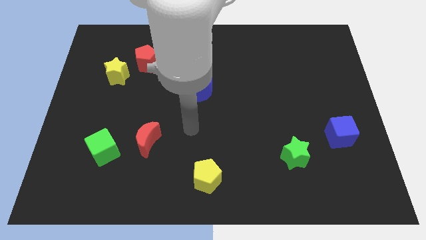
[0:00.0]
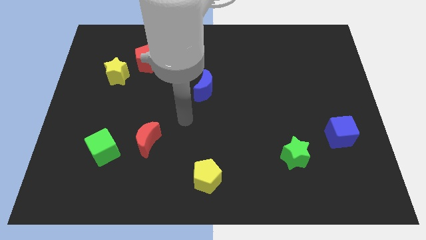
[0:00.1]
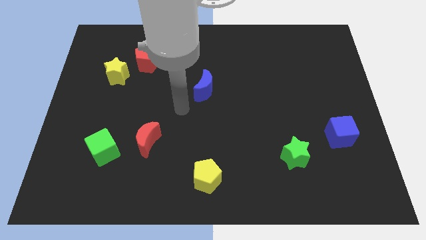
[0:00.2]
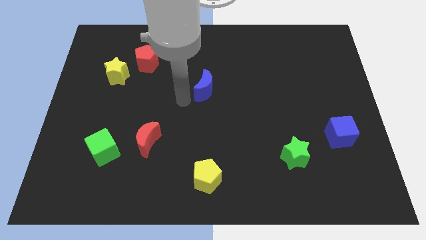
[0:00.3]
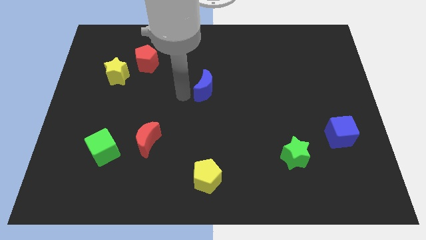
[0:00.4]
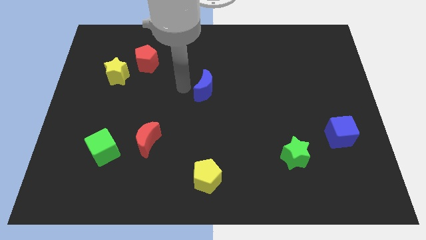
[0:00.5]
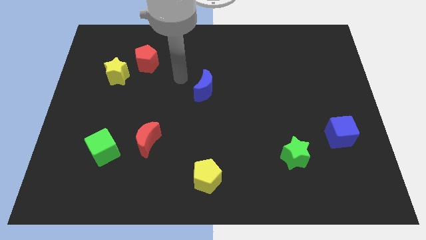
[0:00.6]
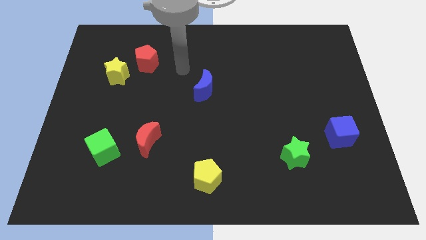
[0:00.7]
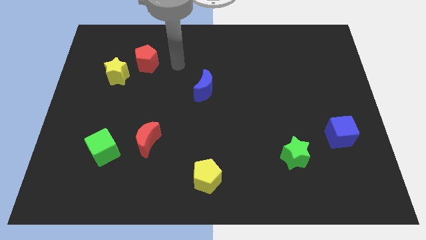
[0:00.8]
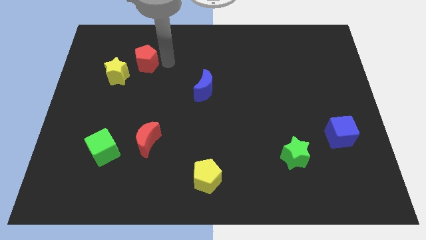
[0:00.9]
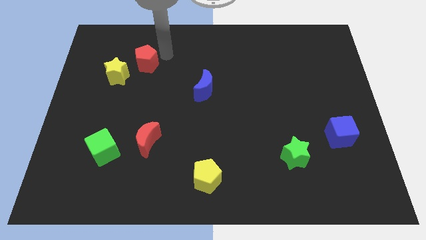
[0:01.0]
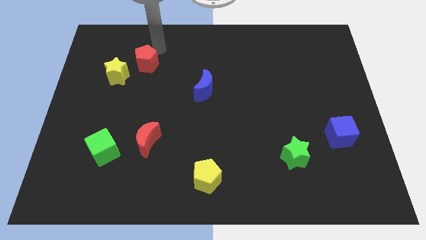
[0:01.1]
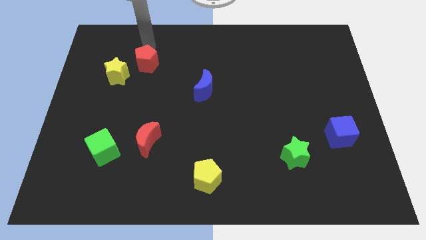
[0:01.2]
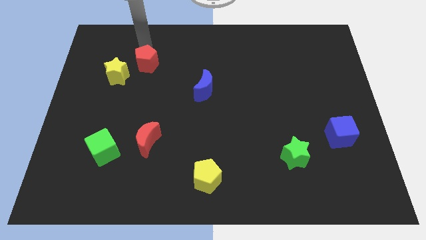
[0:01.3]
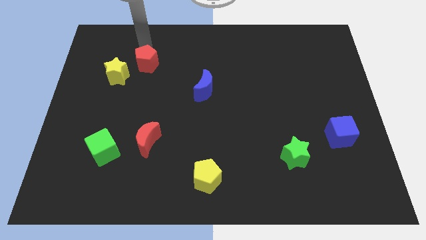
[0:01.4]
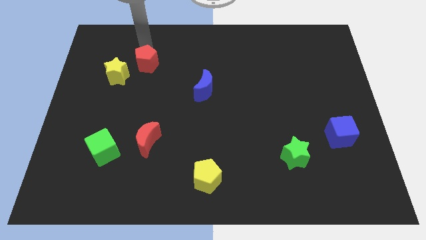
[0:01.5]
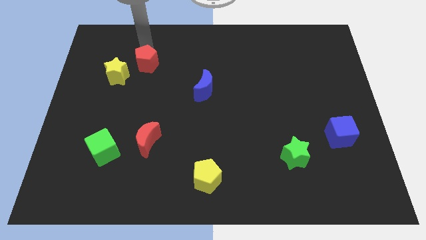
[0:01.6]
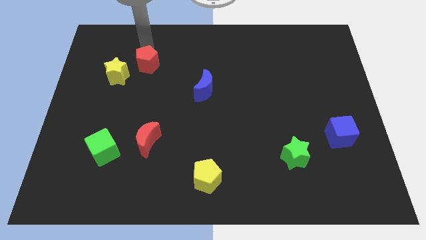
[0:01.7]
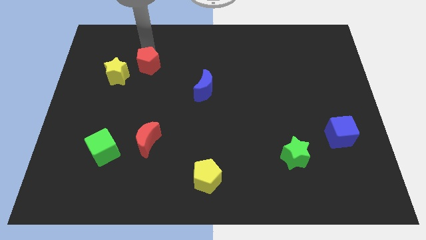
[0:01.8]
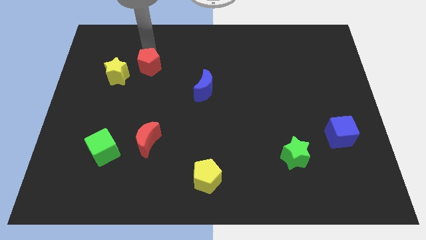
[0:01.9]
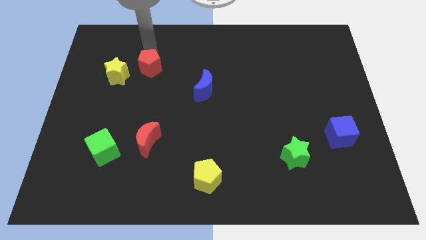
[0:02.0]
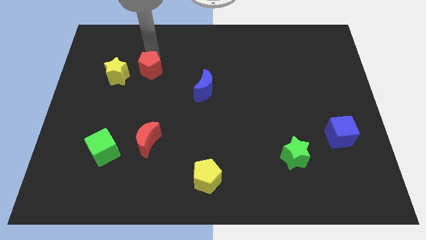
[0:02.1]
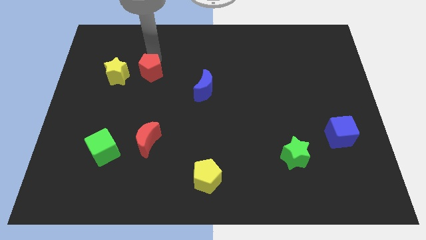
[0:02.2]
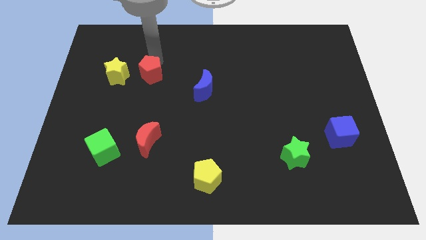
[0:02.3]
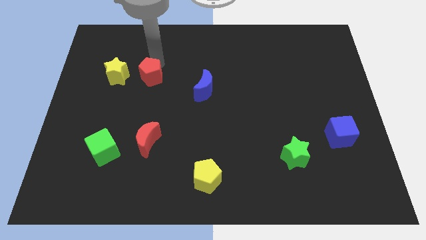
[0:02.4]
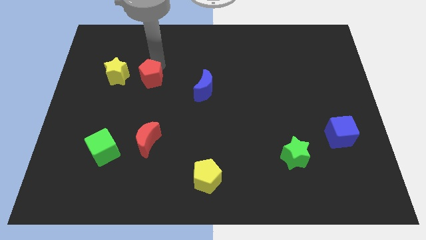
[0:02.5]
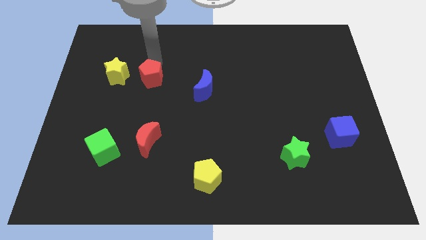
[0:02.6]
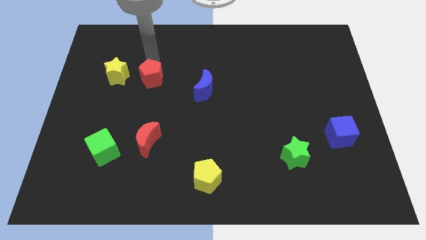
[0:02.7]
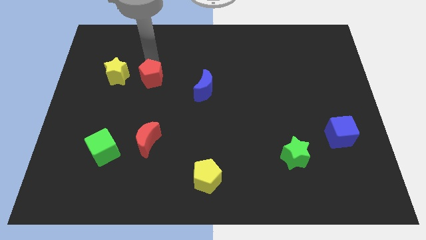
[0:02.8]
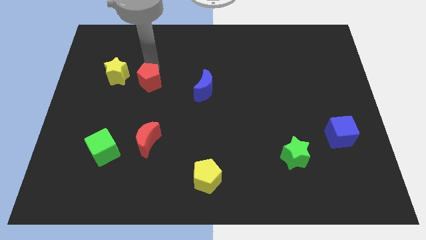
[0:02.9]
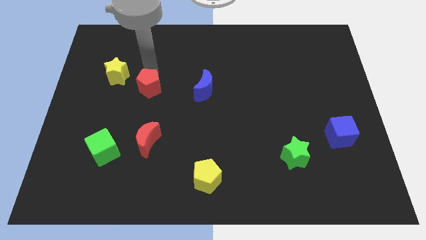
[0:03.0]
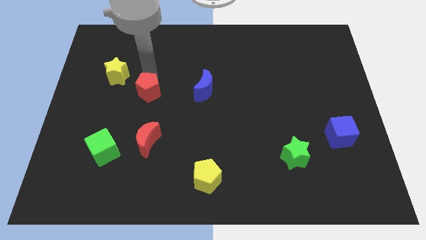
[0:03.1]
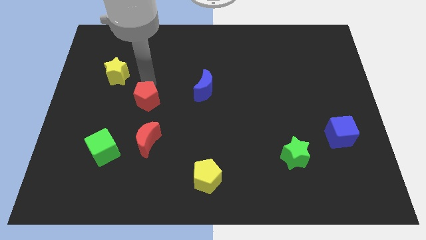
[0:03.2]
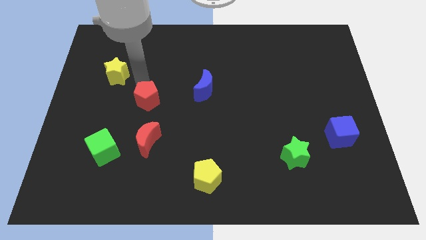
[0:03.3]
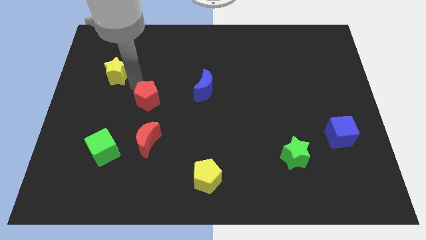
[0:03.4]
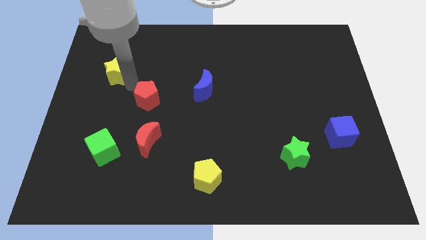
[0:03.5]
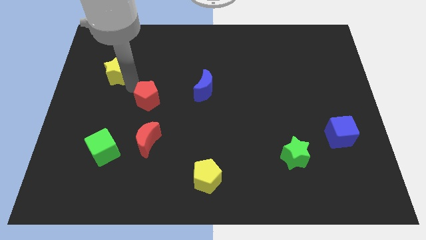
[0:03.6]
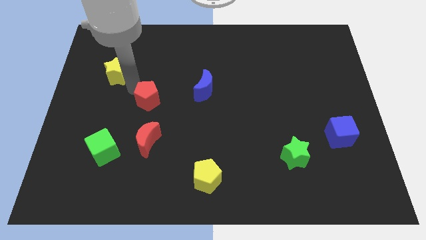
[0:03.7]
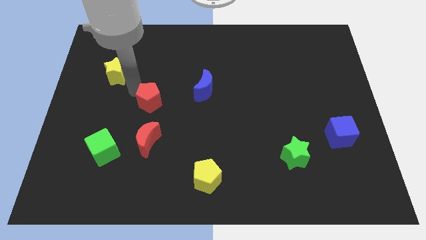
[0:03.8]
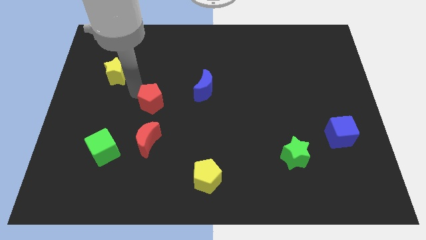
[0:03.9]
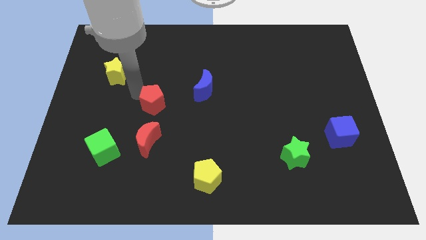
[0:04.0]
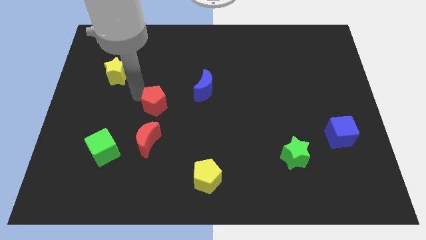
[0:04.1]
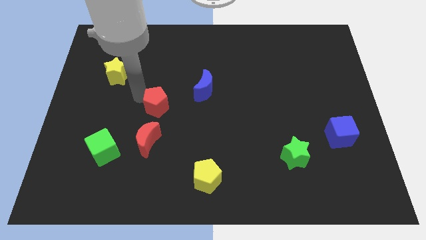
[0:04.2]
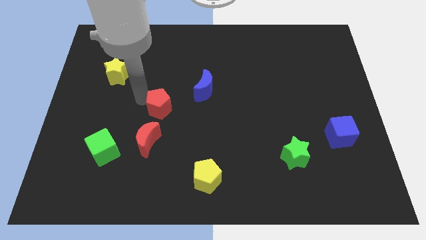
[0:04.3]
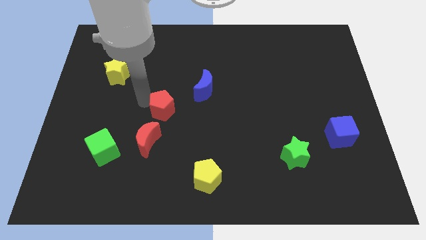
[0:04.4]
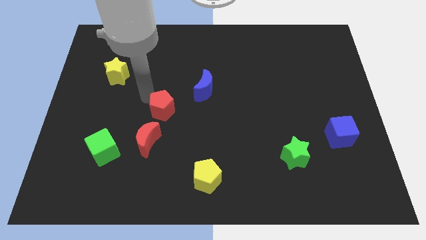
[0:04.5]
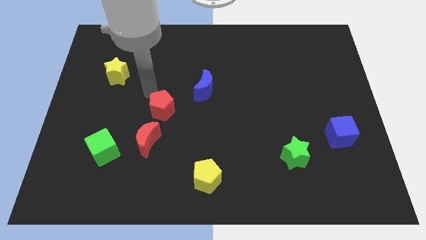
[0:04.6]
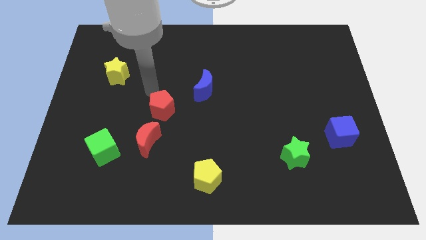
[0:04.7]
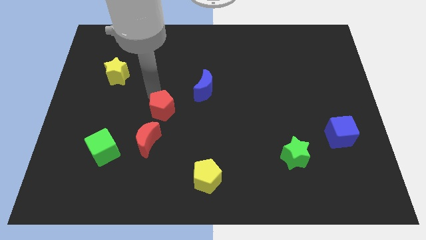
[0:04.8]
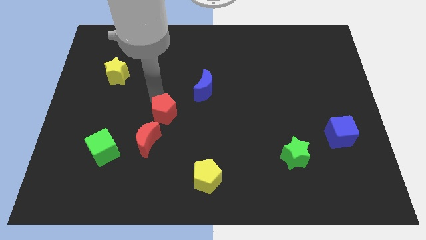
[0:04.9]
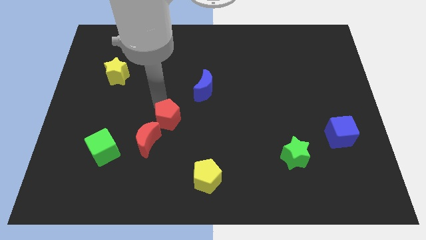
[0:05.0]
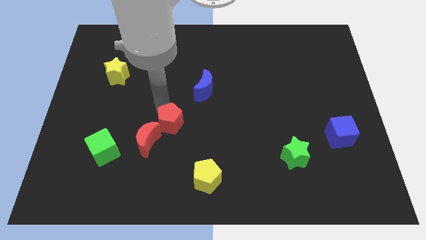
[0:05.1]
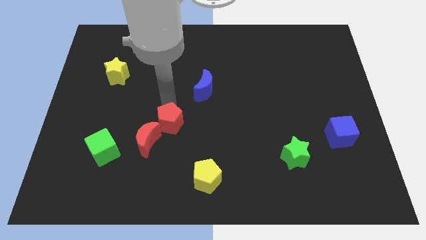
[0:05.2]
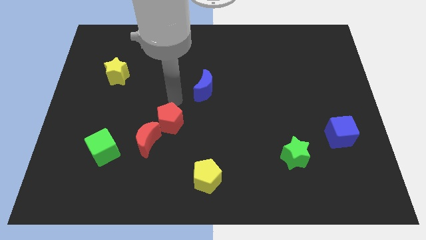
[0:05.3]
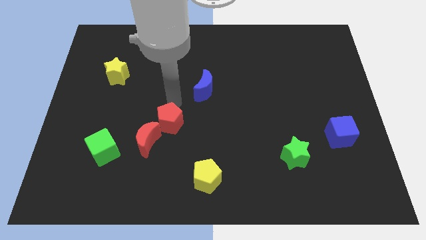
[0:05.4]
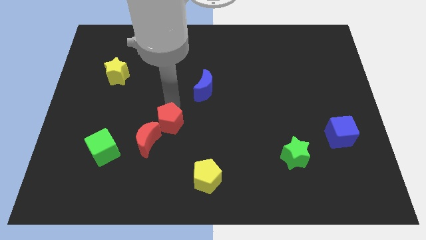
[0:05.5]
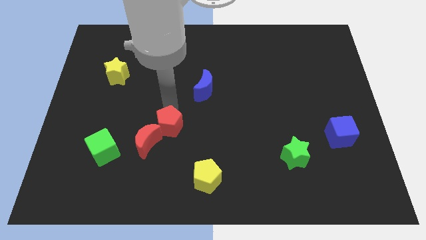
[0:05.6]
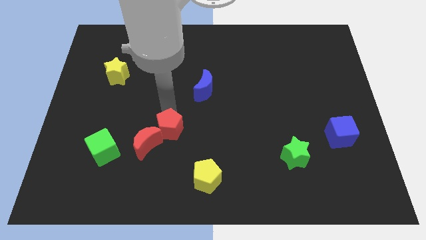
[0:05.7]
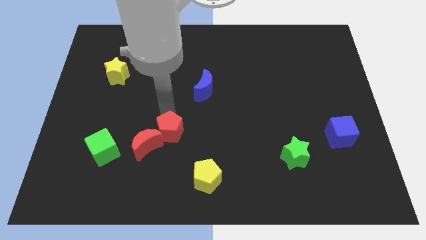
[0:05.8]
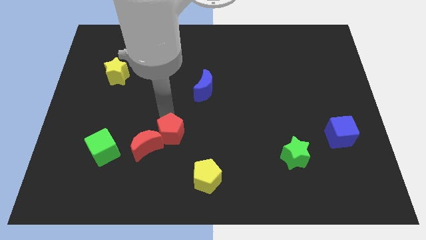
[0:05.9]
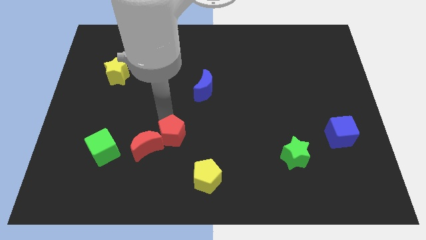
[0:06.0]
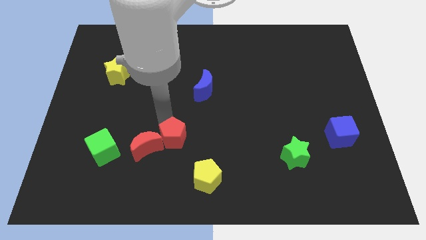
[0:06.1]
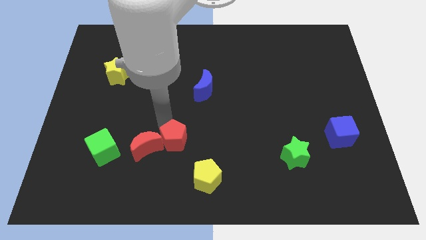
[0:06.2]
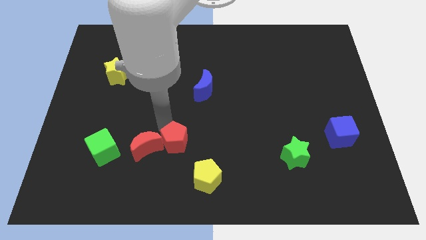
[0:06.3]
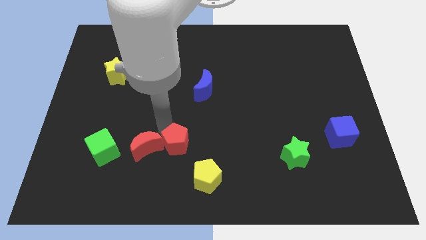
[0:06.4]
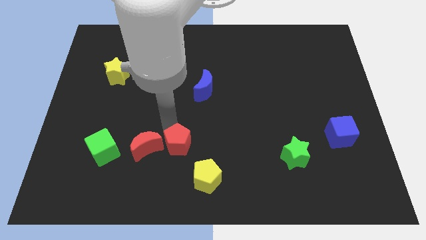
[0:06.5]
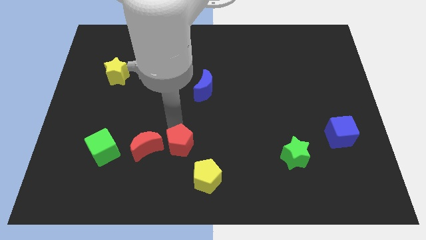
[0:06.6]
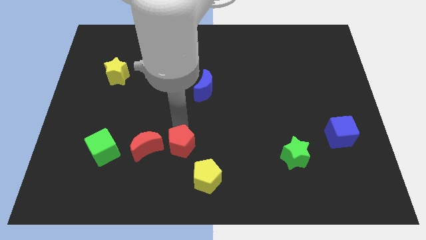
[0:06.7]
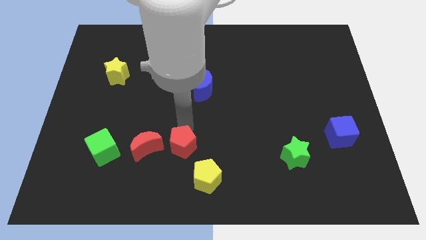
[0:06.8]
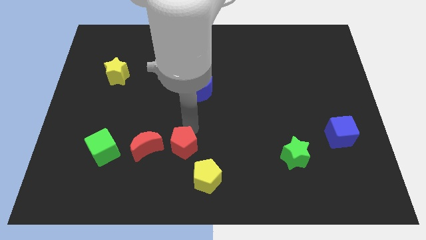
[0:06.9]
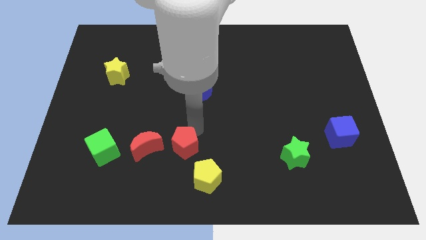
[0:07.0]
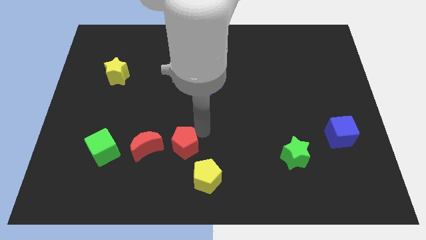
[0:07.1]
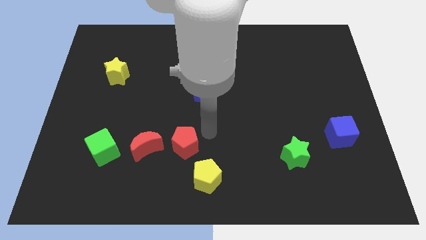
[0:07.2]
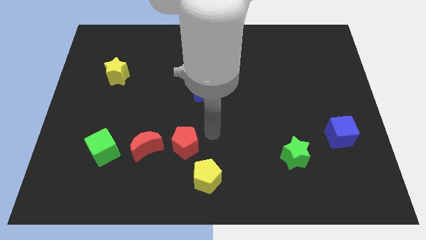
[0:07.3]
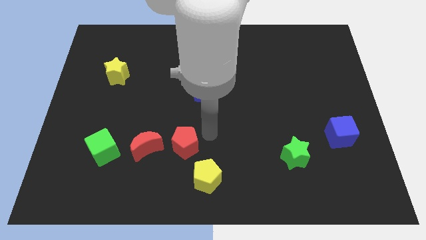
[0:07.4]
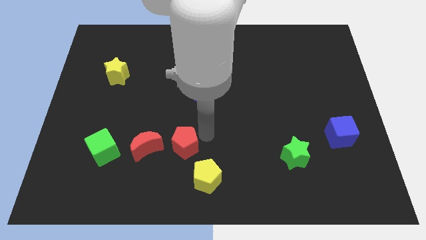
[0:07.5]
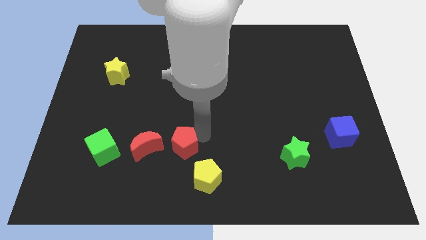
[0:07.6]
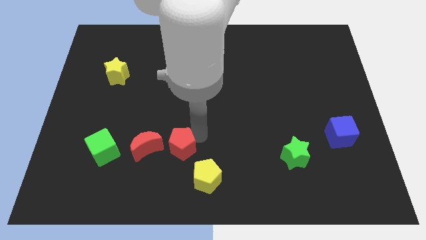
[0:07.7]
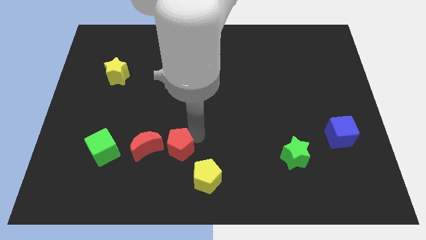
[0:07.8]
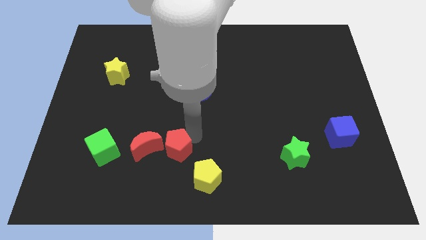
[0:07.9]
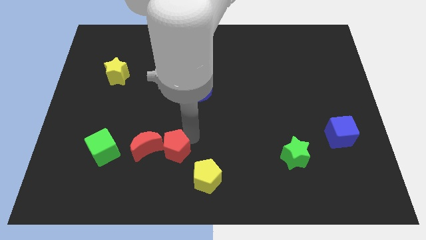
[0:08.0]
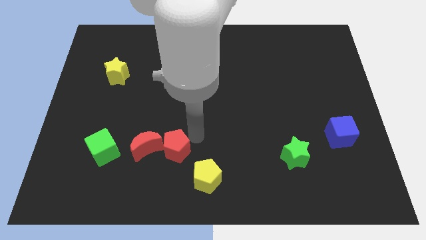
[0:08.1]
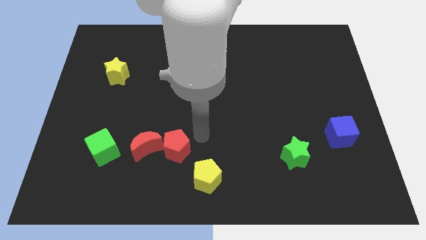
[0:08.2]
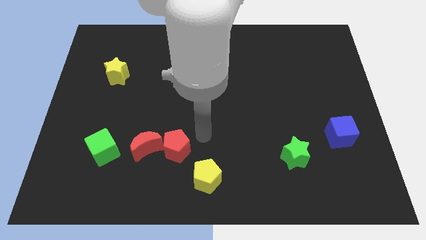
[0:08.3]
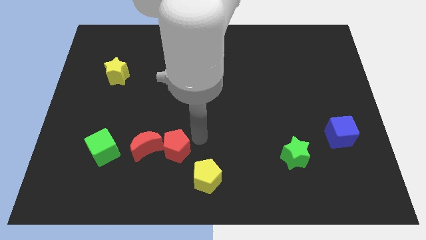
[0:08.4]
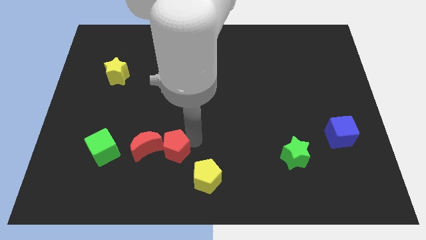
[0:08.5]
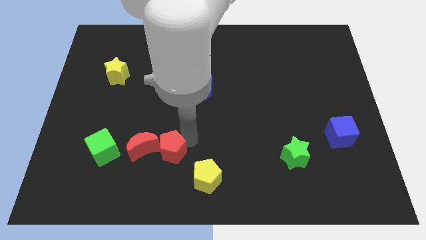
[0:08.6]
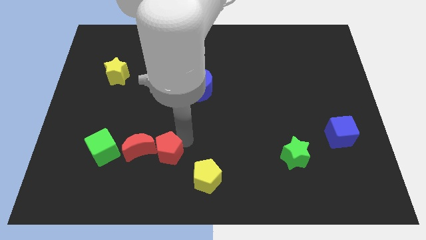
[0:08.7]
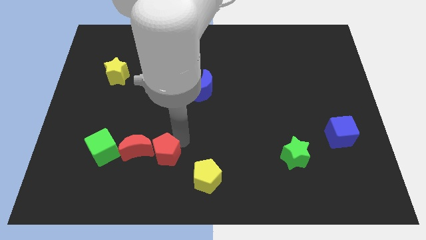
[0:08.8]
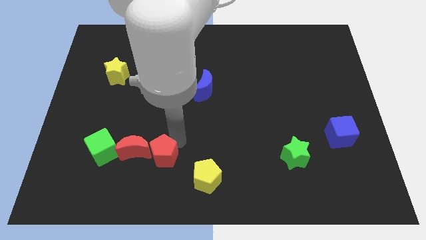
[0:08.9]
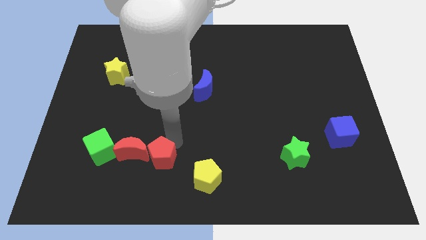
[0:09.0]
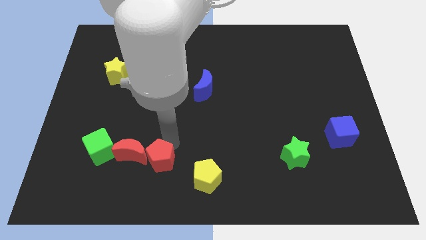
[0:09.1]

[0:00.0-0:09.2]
slide the red pentagon to the left of the yellow pentagon
